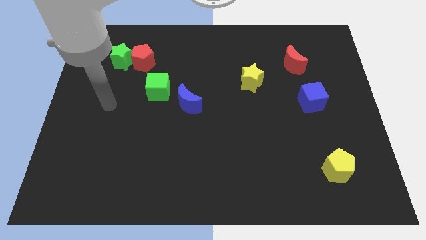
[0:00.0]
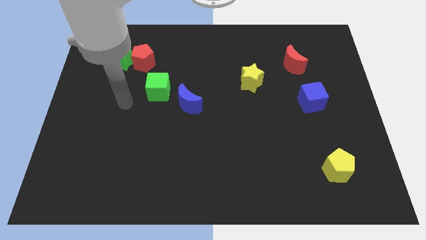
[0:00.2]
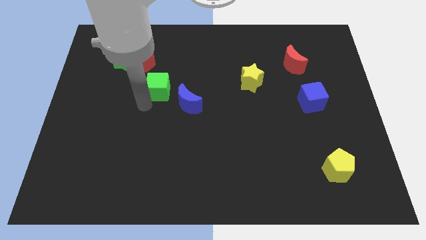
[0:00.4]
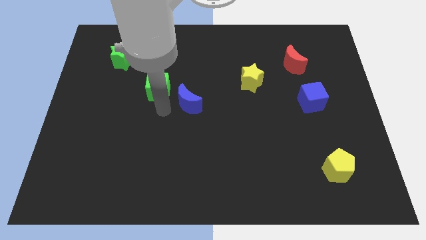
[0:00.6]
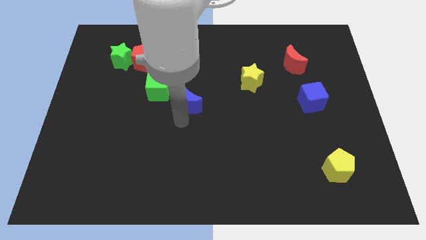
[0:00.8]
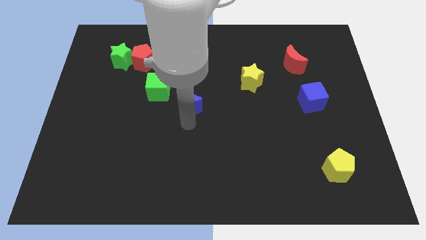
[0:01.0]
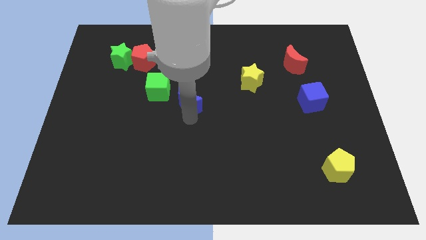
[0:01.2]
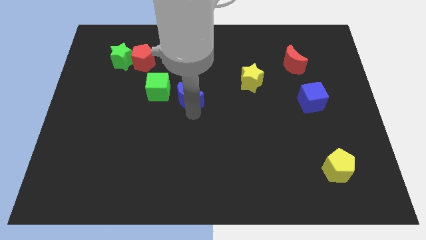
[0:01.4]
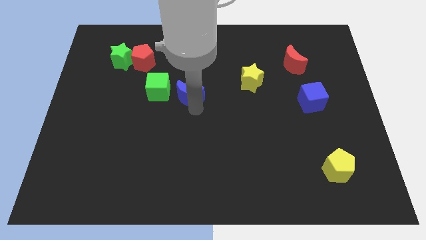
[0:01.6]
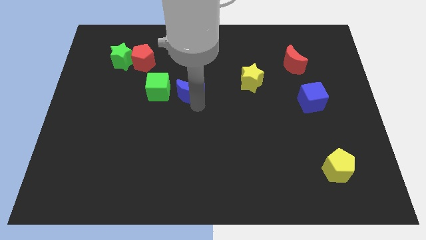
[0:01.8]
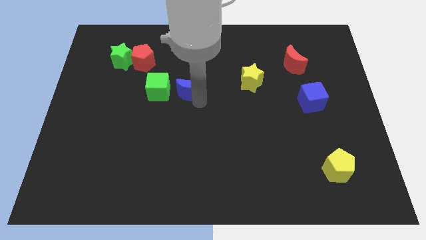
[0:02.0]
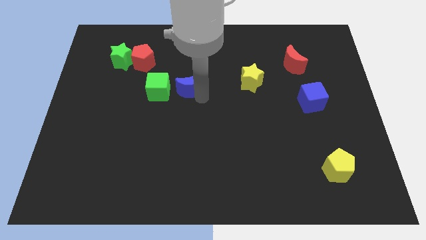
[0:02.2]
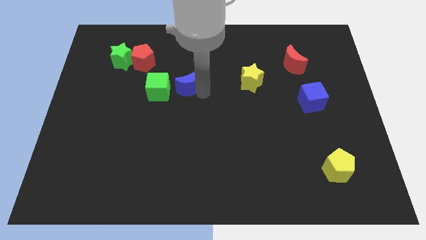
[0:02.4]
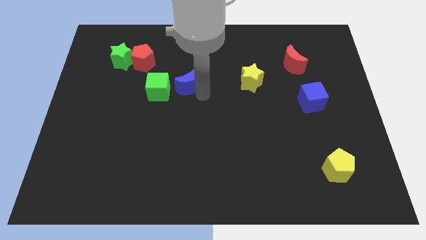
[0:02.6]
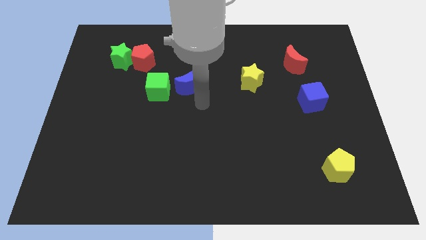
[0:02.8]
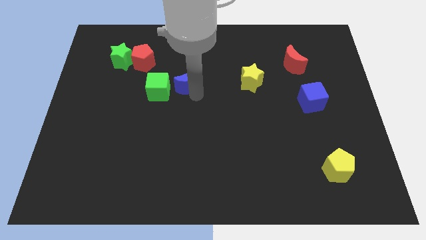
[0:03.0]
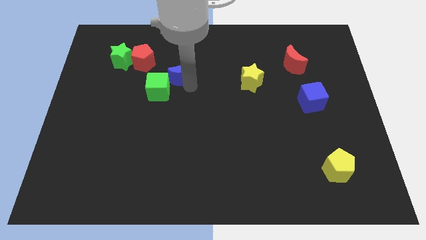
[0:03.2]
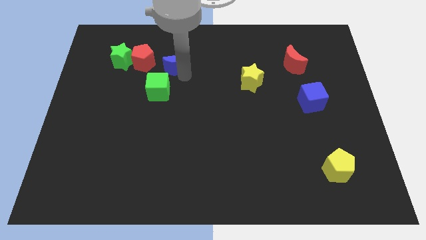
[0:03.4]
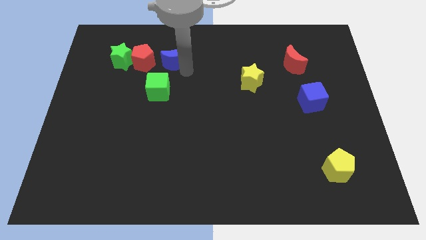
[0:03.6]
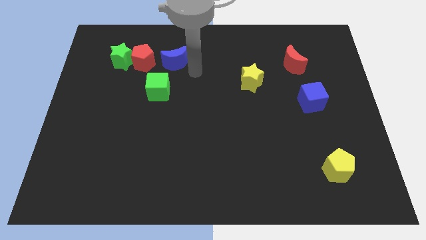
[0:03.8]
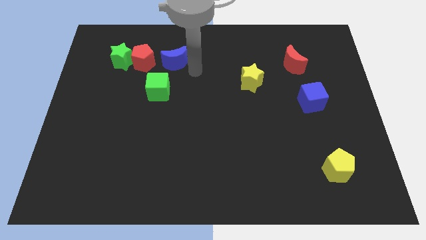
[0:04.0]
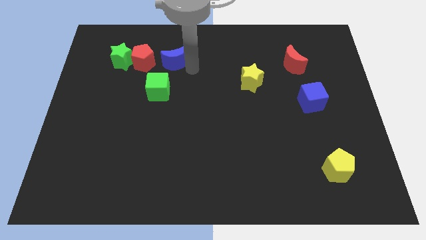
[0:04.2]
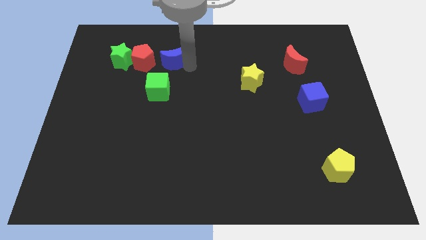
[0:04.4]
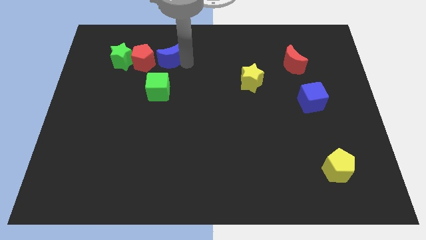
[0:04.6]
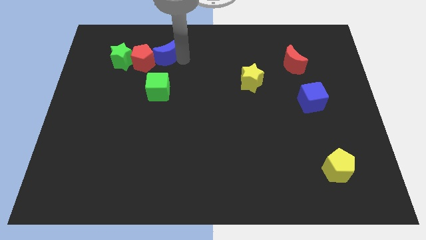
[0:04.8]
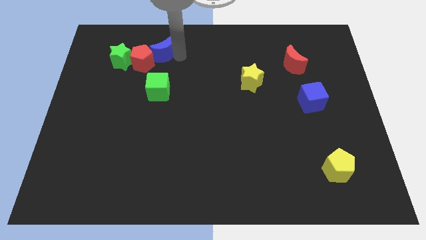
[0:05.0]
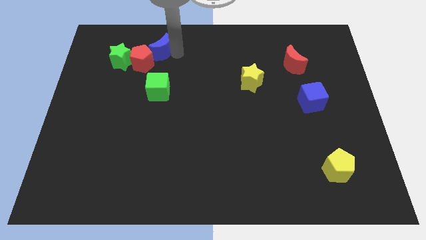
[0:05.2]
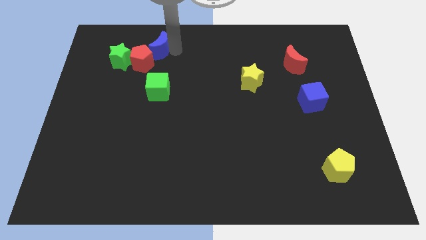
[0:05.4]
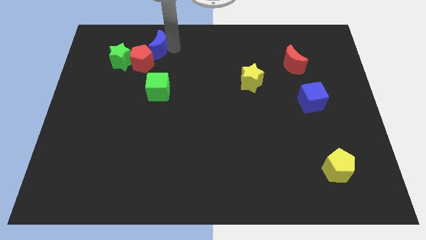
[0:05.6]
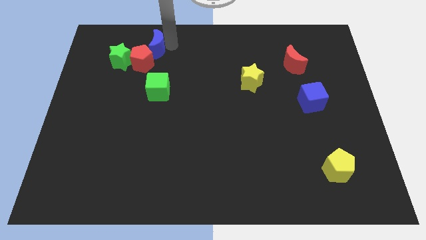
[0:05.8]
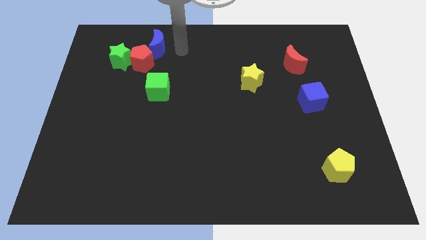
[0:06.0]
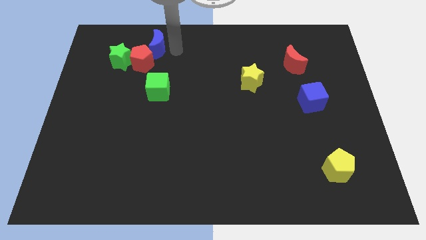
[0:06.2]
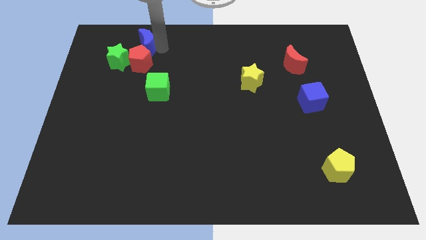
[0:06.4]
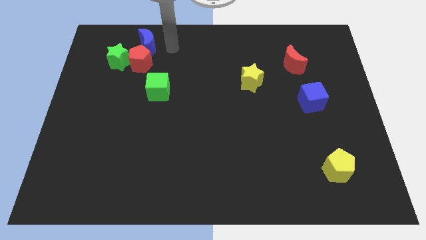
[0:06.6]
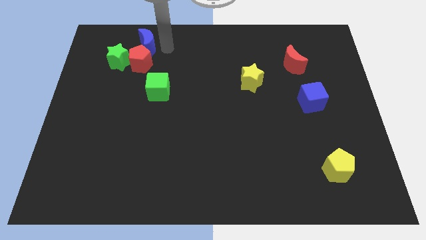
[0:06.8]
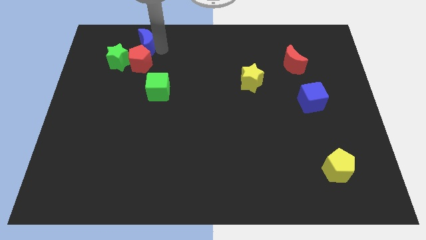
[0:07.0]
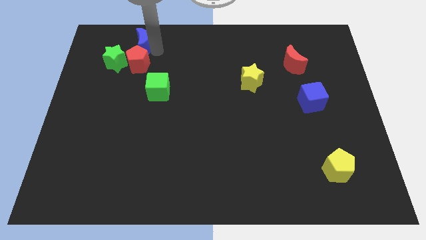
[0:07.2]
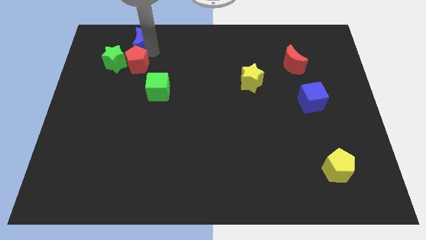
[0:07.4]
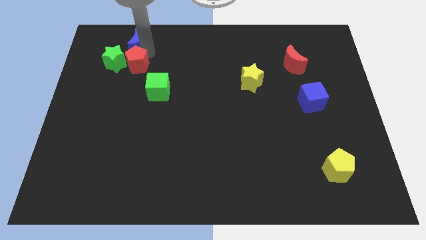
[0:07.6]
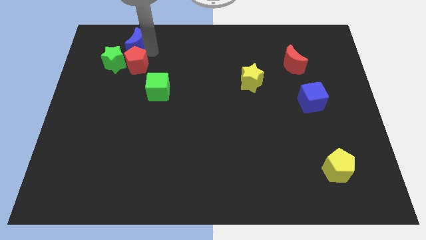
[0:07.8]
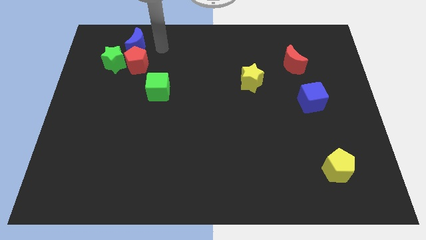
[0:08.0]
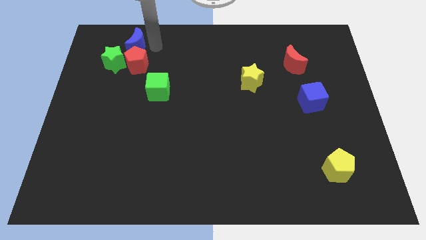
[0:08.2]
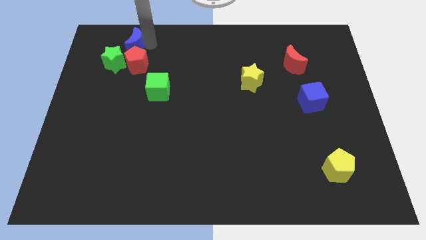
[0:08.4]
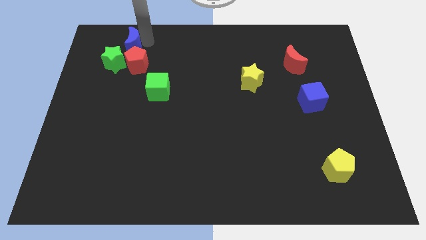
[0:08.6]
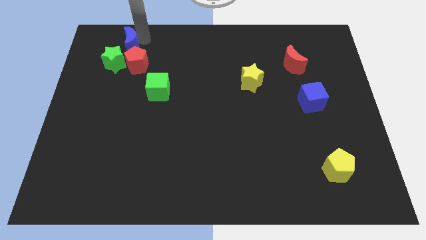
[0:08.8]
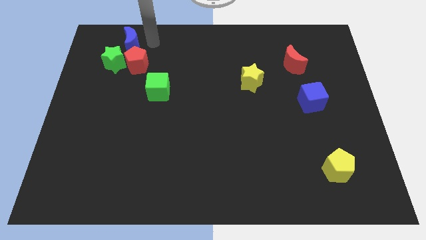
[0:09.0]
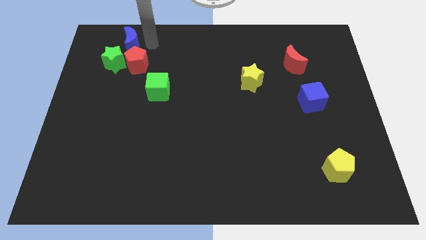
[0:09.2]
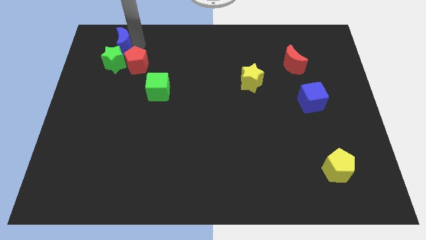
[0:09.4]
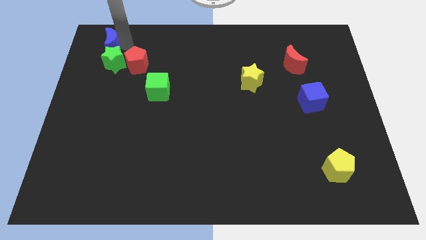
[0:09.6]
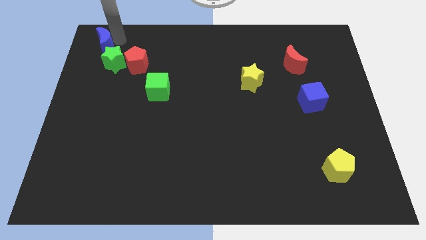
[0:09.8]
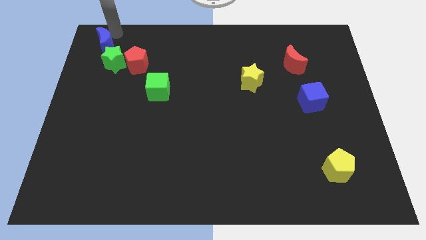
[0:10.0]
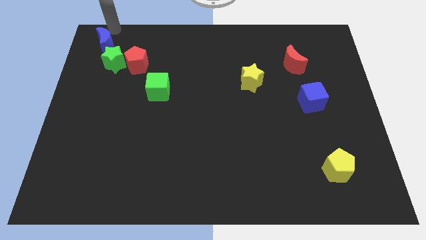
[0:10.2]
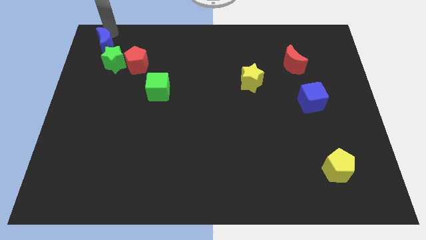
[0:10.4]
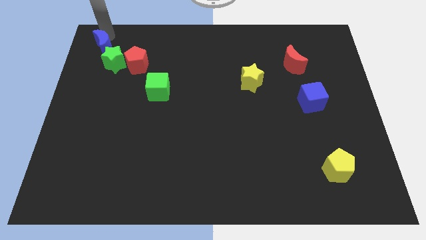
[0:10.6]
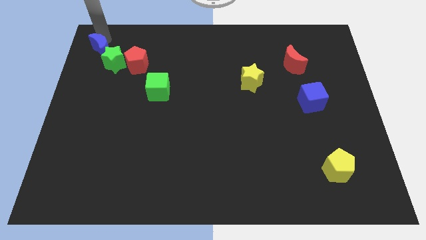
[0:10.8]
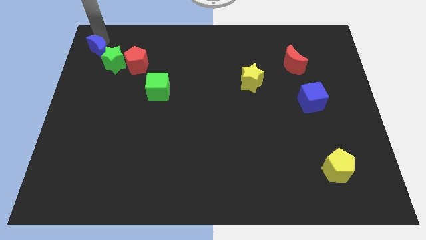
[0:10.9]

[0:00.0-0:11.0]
push the blue moon to the left side of the red pentagon

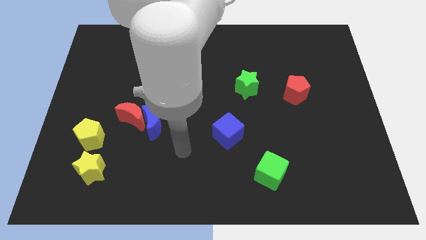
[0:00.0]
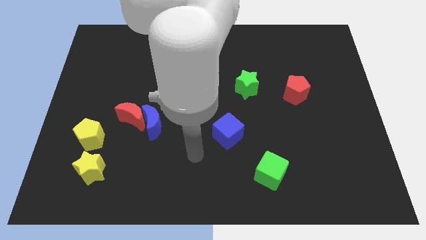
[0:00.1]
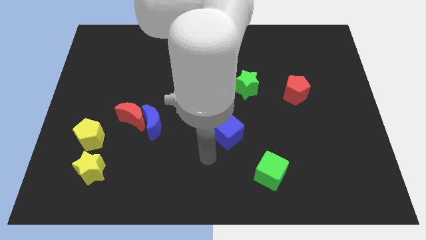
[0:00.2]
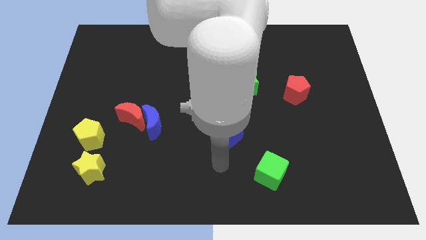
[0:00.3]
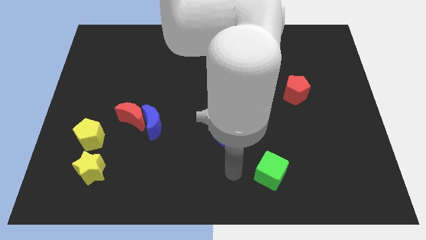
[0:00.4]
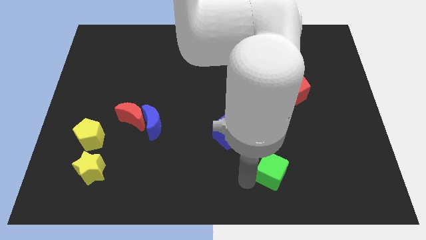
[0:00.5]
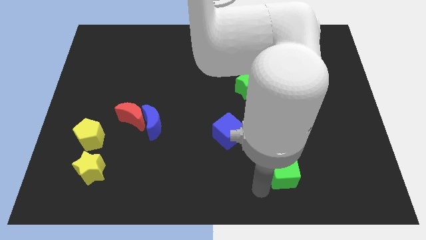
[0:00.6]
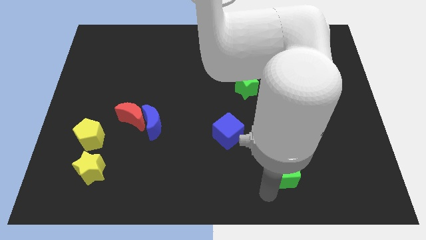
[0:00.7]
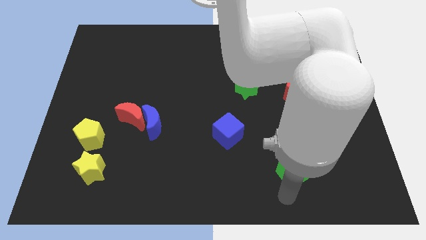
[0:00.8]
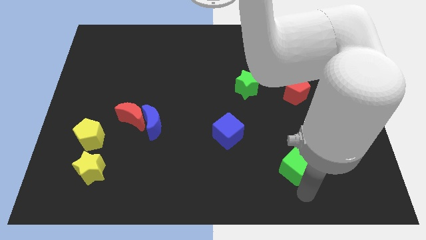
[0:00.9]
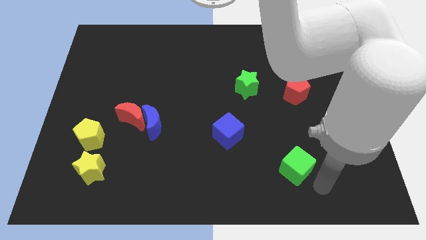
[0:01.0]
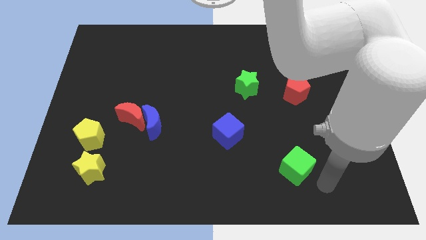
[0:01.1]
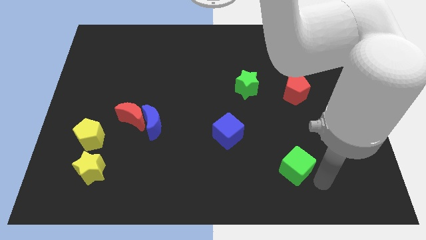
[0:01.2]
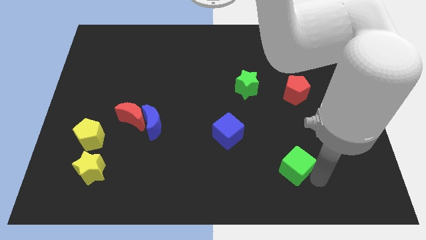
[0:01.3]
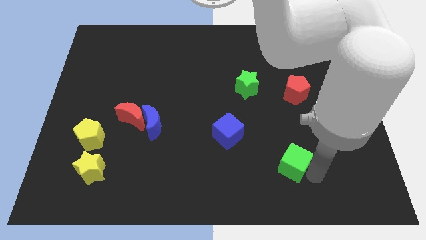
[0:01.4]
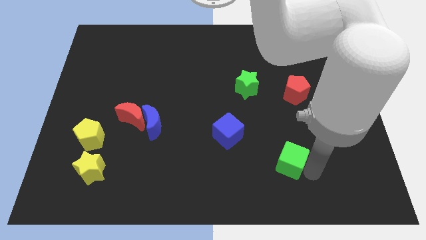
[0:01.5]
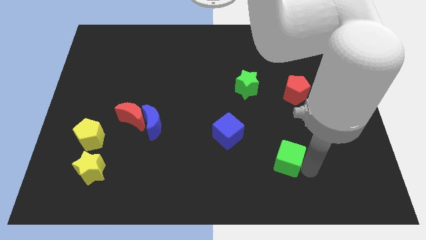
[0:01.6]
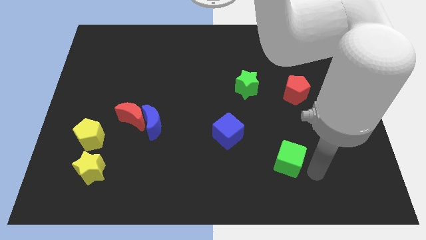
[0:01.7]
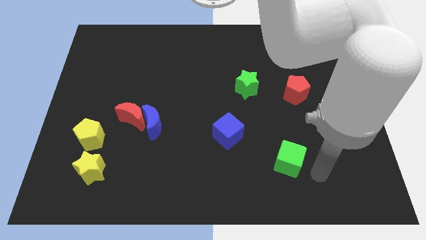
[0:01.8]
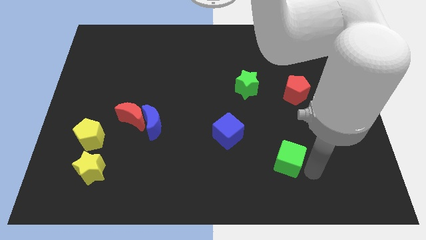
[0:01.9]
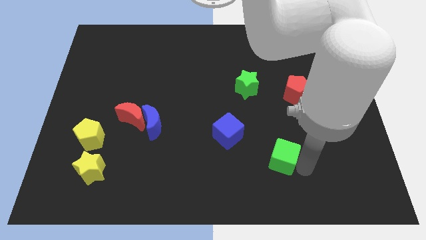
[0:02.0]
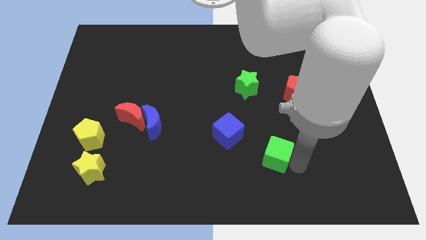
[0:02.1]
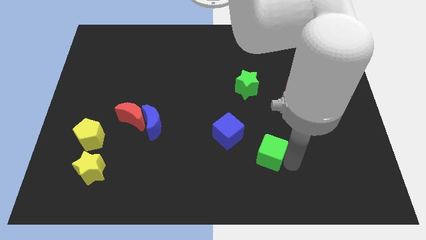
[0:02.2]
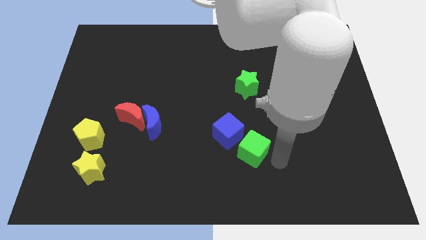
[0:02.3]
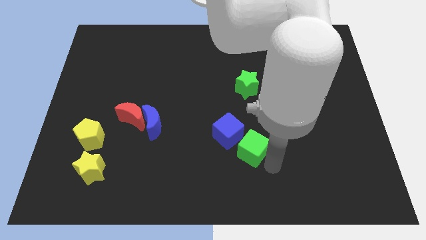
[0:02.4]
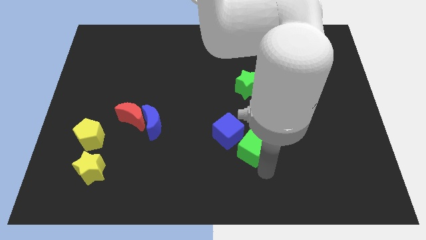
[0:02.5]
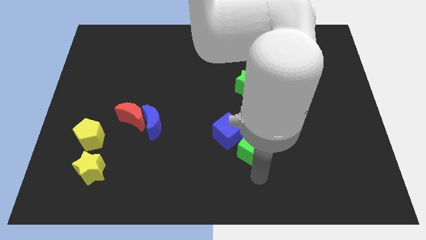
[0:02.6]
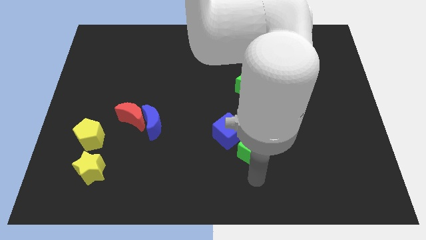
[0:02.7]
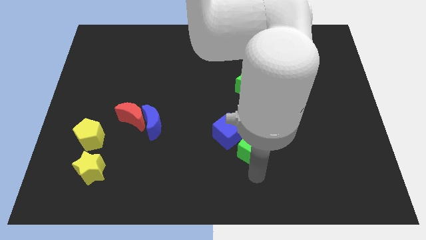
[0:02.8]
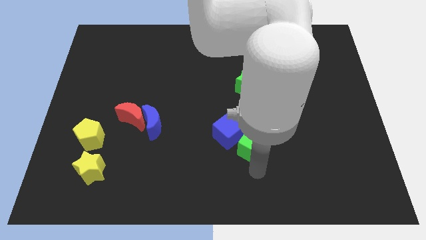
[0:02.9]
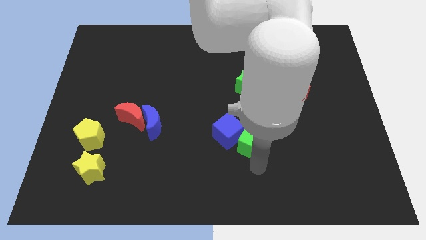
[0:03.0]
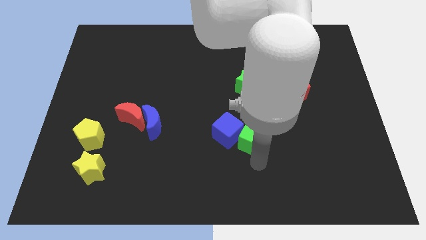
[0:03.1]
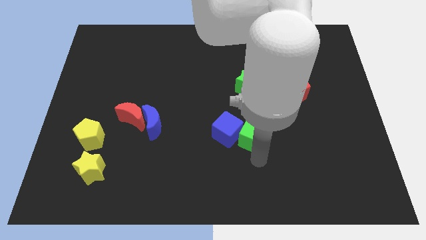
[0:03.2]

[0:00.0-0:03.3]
slide the green cube diagonally up and to the right of the blue cube
